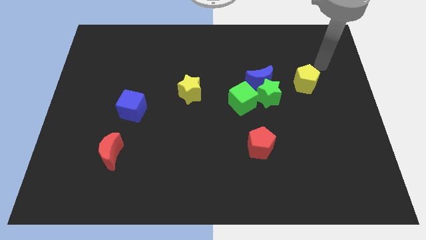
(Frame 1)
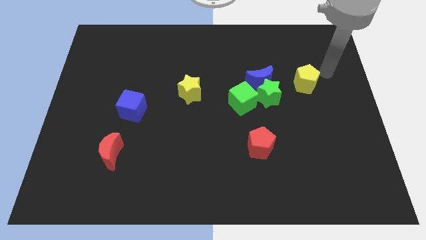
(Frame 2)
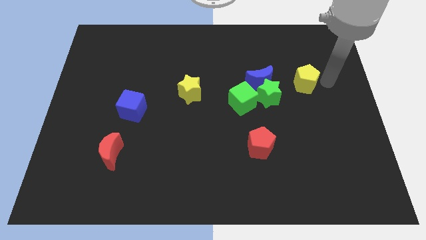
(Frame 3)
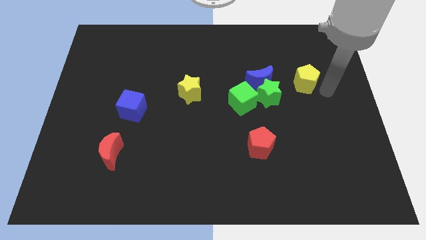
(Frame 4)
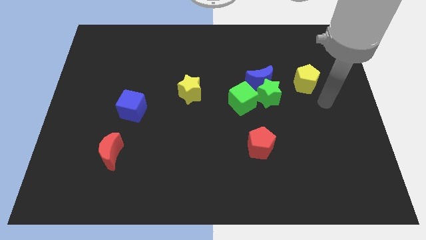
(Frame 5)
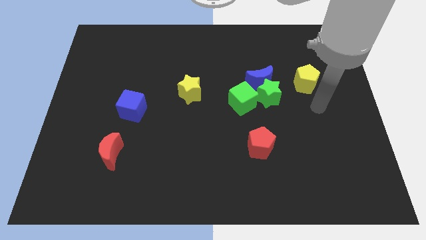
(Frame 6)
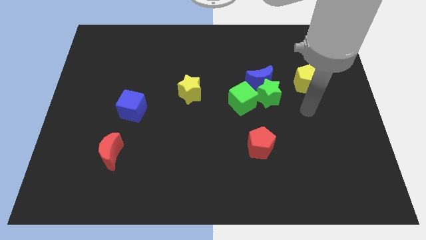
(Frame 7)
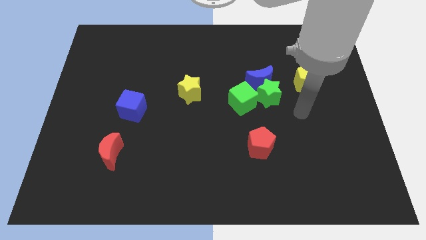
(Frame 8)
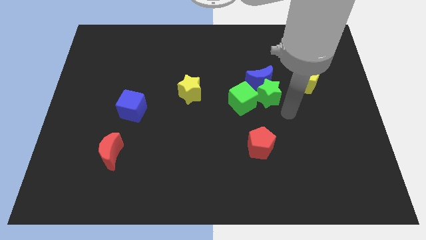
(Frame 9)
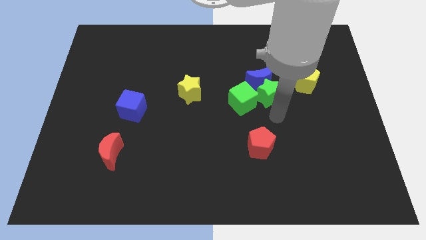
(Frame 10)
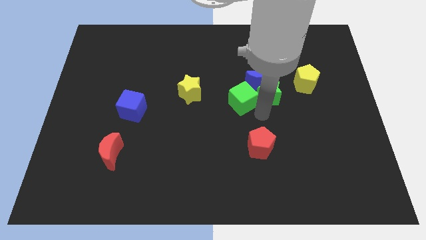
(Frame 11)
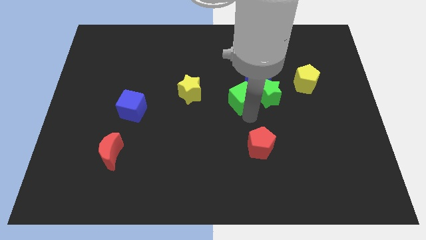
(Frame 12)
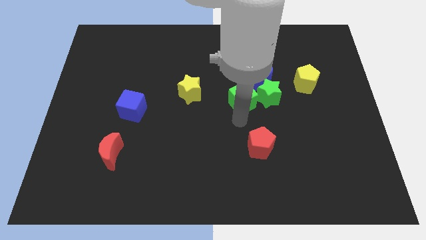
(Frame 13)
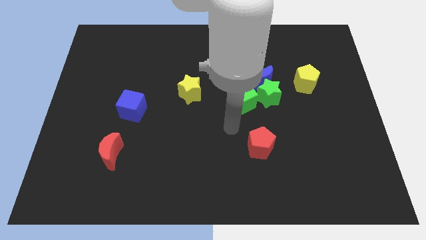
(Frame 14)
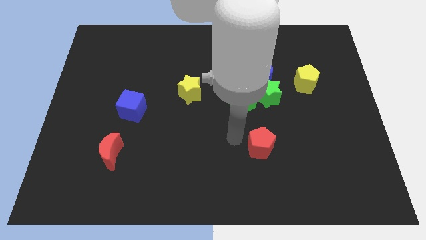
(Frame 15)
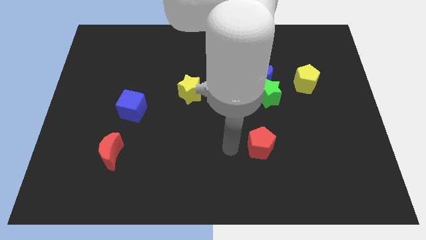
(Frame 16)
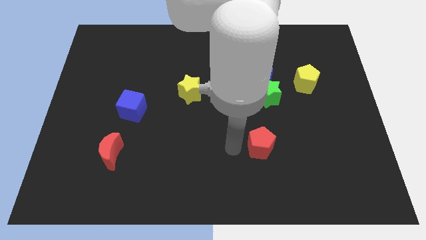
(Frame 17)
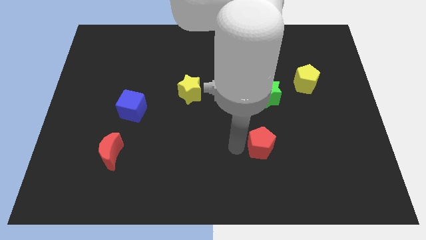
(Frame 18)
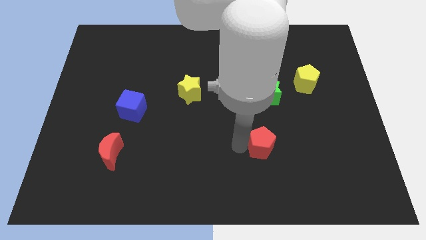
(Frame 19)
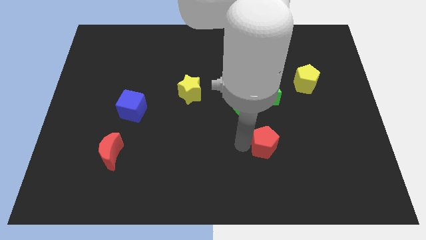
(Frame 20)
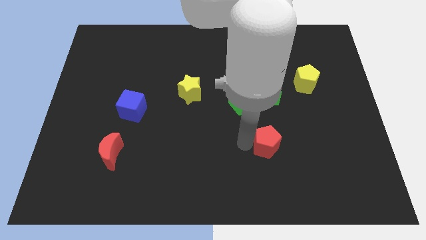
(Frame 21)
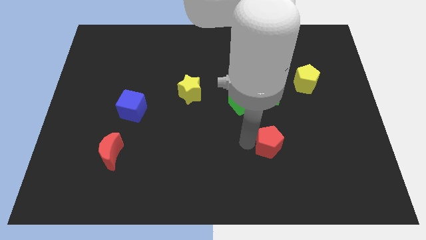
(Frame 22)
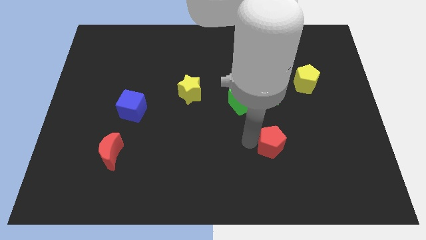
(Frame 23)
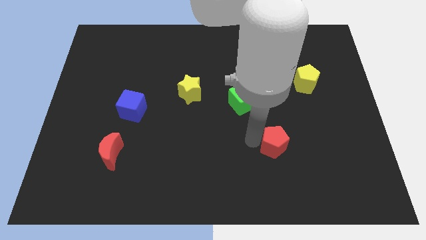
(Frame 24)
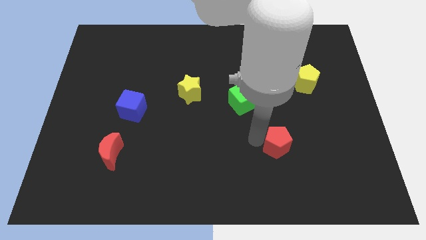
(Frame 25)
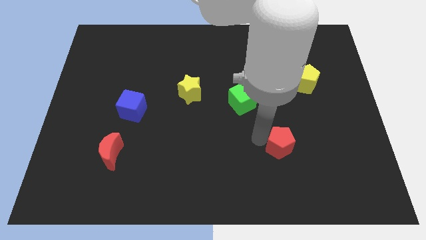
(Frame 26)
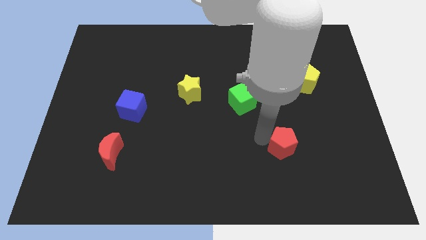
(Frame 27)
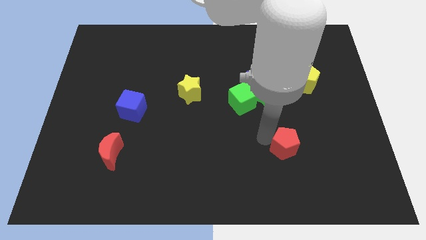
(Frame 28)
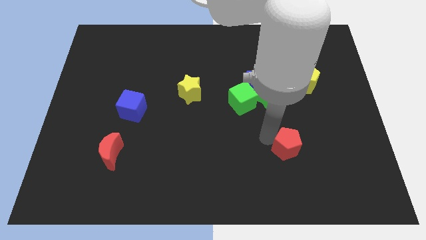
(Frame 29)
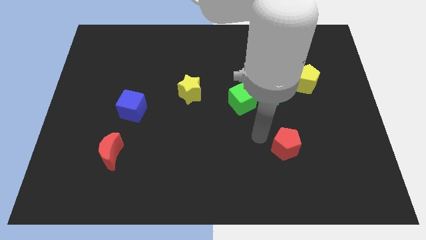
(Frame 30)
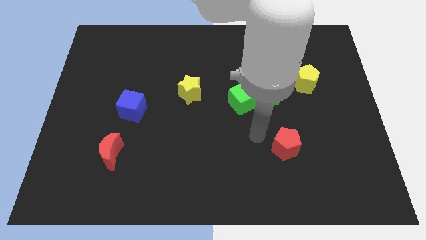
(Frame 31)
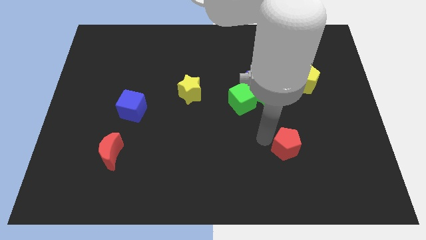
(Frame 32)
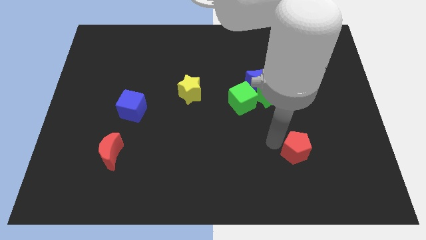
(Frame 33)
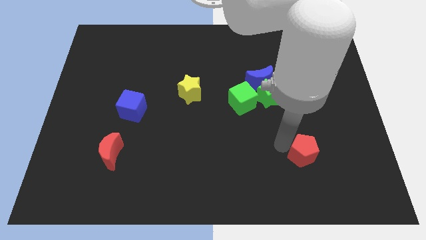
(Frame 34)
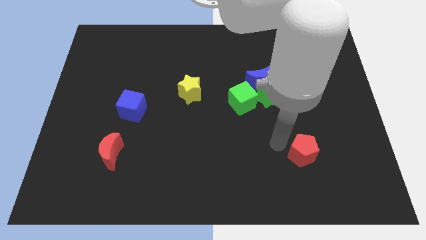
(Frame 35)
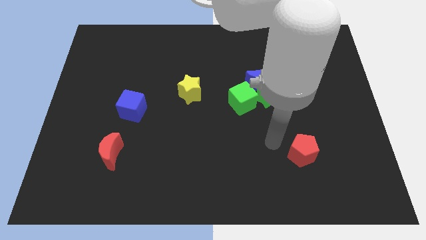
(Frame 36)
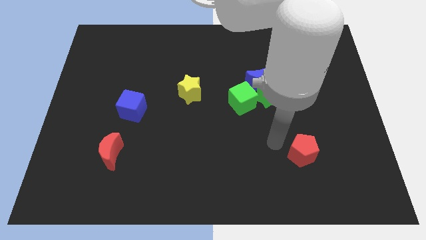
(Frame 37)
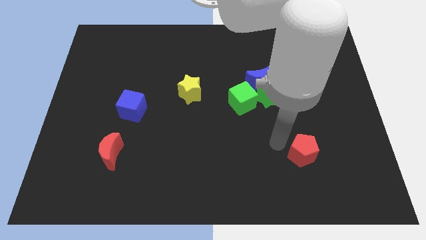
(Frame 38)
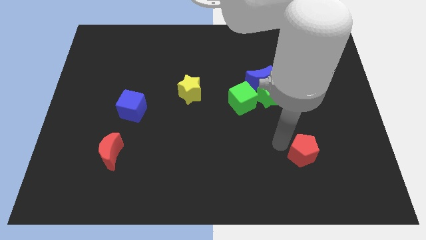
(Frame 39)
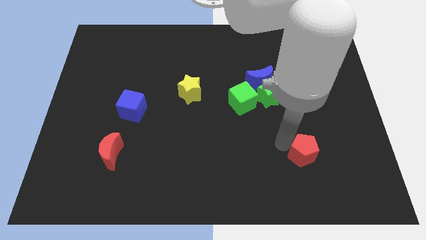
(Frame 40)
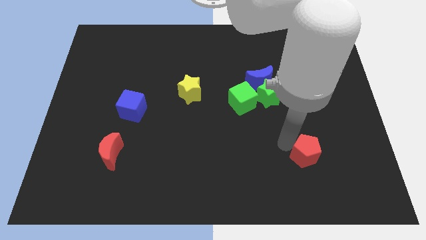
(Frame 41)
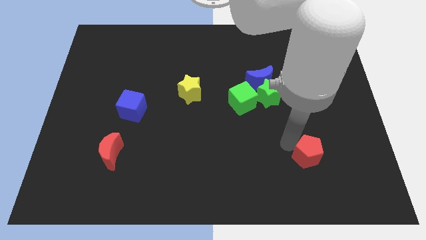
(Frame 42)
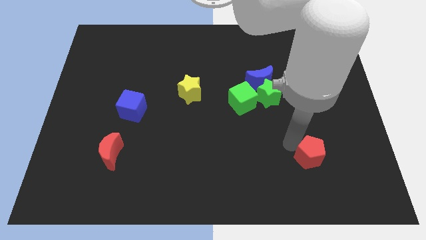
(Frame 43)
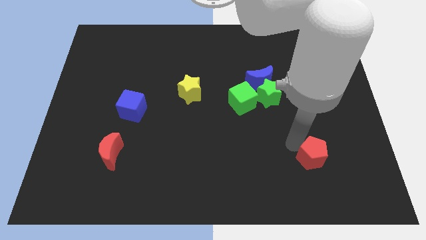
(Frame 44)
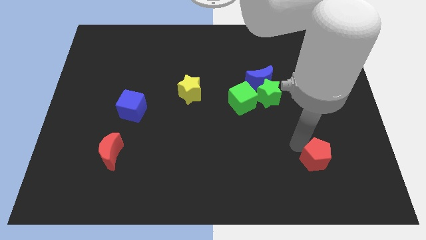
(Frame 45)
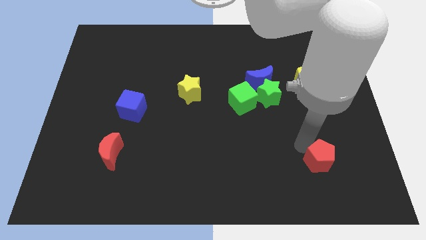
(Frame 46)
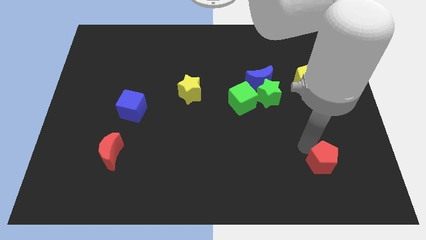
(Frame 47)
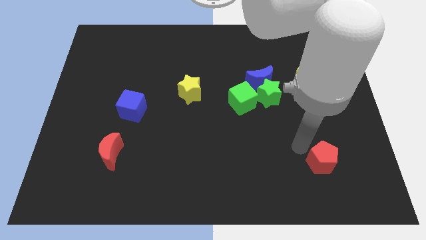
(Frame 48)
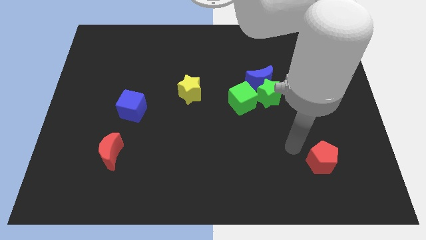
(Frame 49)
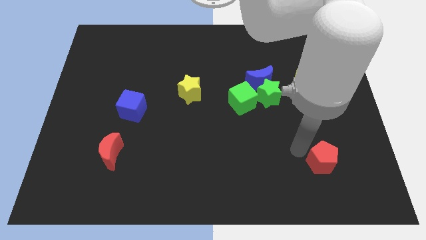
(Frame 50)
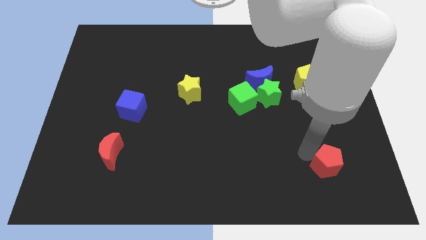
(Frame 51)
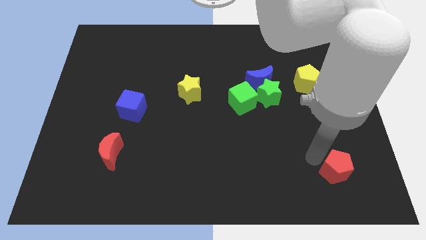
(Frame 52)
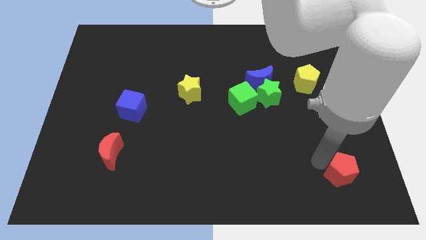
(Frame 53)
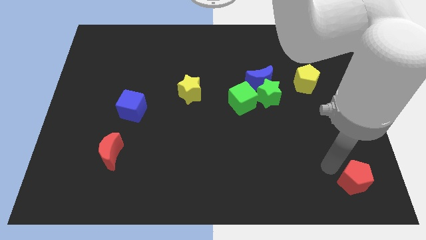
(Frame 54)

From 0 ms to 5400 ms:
move the red pentagon to the bottom right

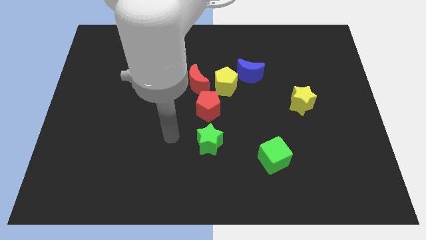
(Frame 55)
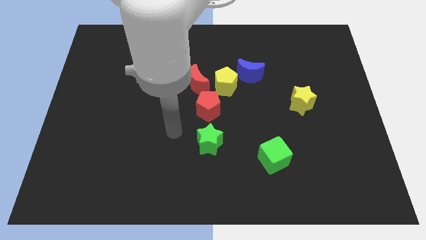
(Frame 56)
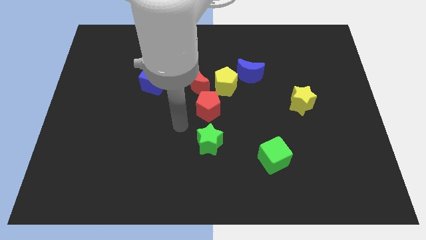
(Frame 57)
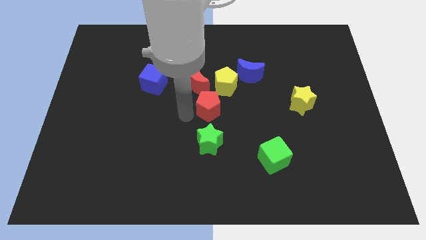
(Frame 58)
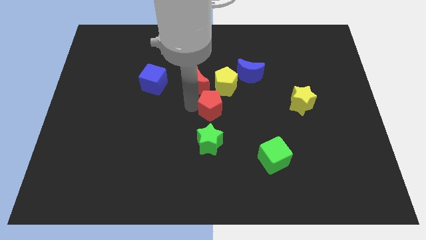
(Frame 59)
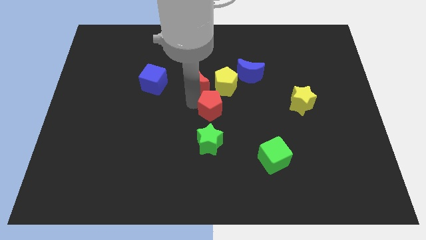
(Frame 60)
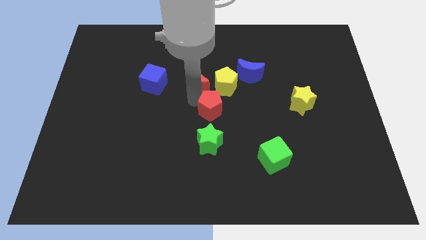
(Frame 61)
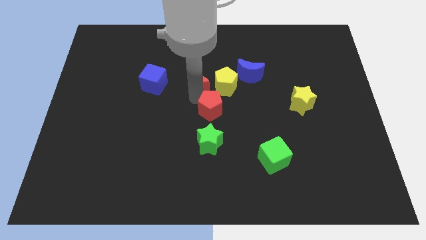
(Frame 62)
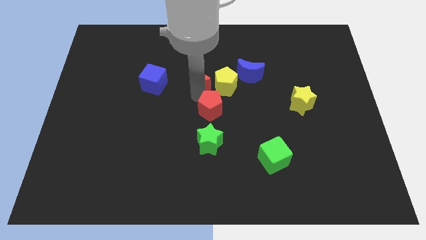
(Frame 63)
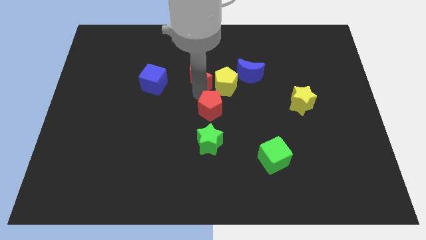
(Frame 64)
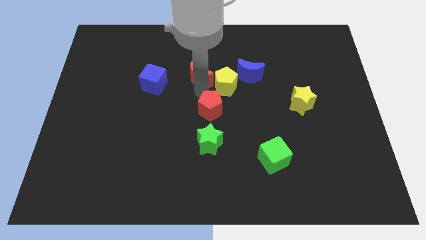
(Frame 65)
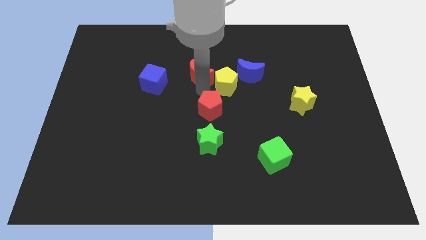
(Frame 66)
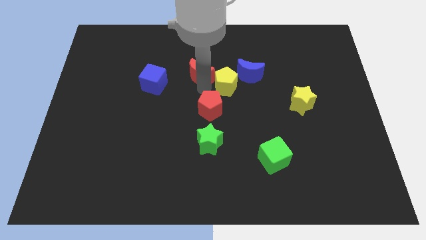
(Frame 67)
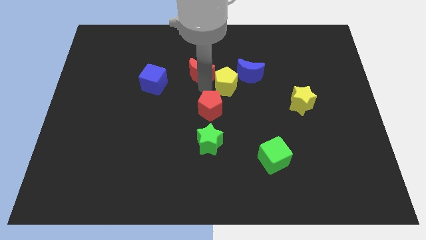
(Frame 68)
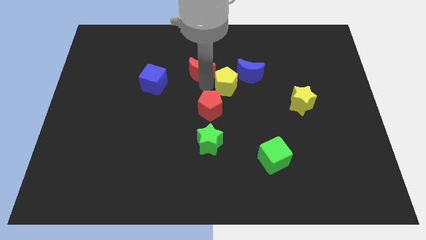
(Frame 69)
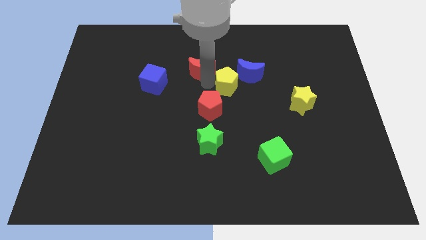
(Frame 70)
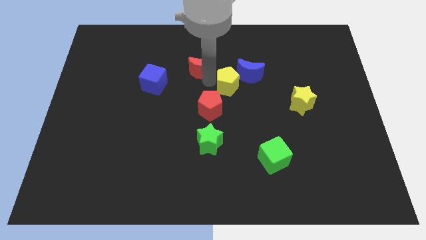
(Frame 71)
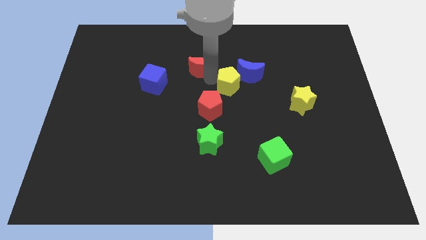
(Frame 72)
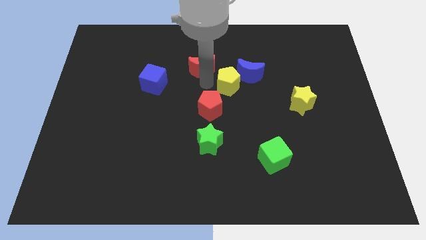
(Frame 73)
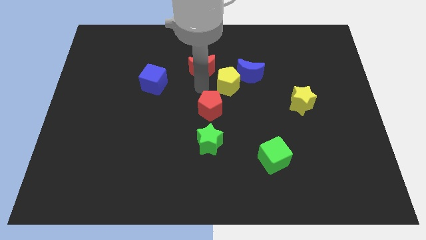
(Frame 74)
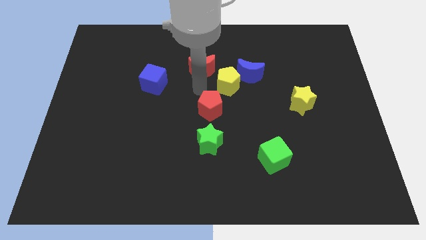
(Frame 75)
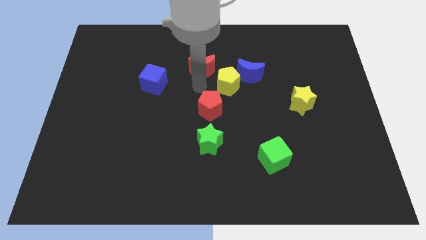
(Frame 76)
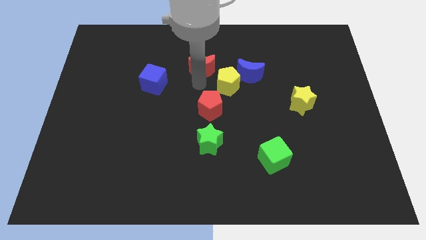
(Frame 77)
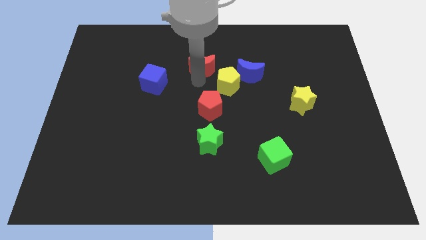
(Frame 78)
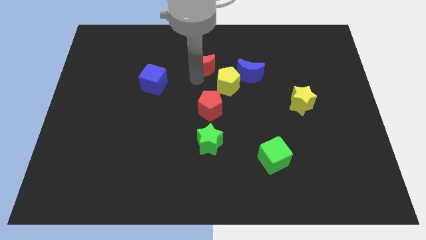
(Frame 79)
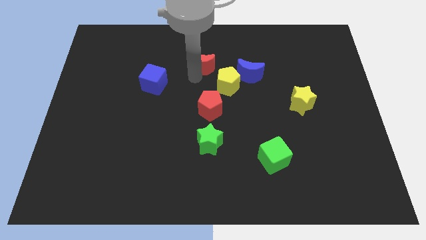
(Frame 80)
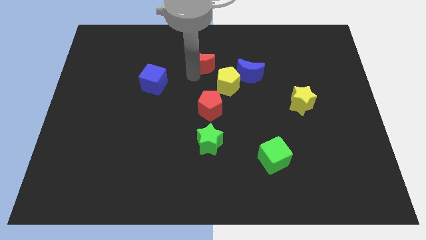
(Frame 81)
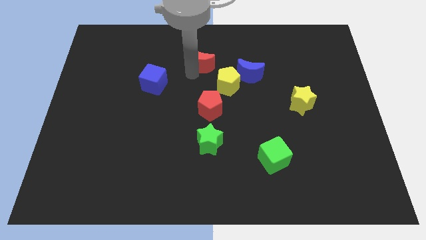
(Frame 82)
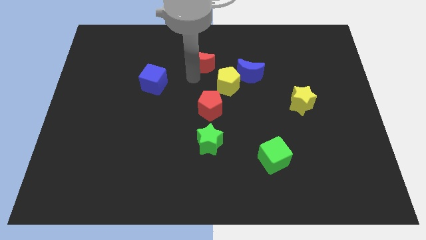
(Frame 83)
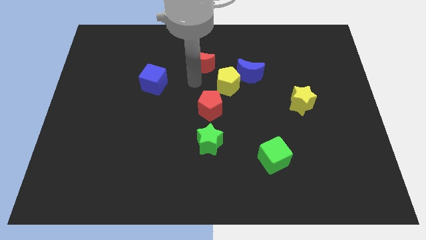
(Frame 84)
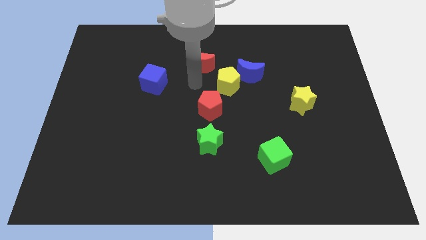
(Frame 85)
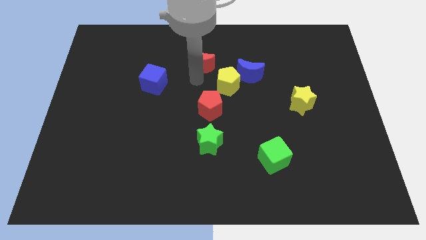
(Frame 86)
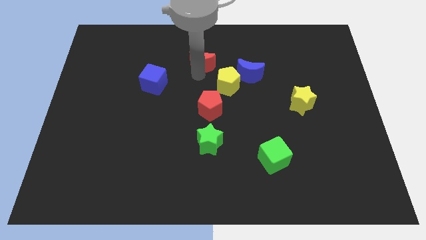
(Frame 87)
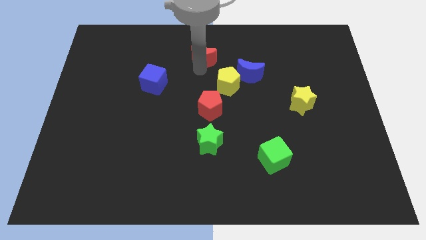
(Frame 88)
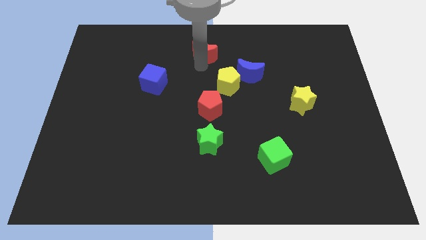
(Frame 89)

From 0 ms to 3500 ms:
put the red moon to the top
